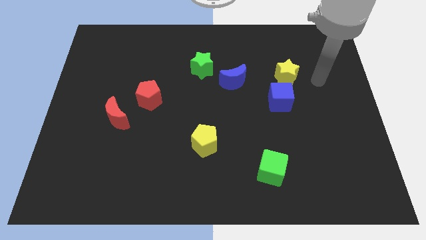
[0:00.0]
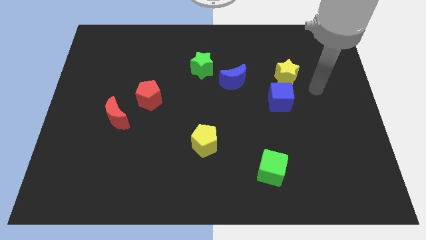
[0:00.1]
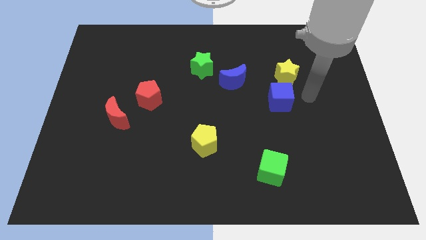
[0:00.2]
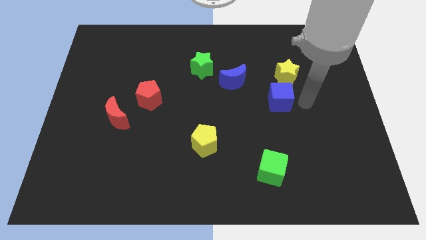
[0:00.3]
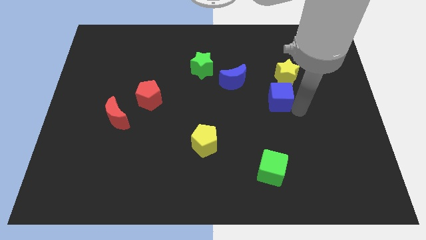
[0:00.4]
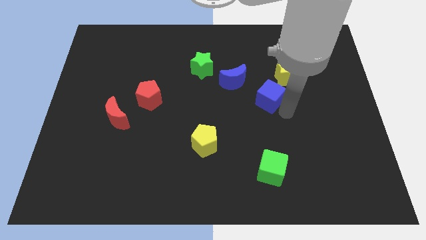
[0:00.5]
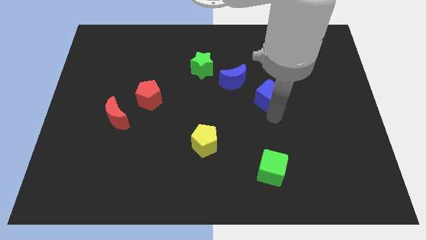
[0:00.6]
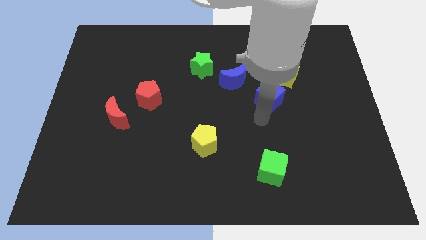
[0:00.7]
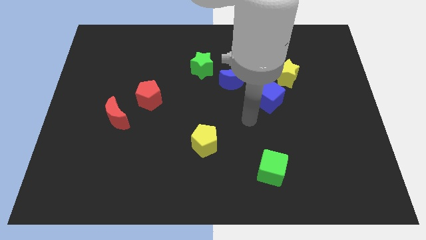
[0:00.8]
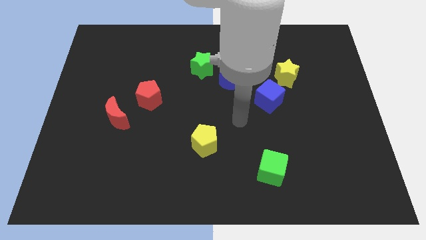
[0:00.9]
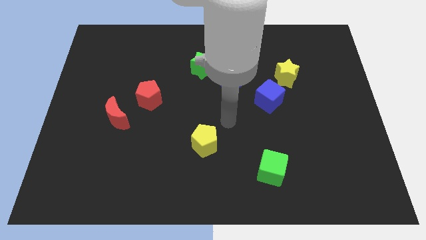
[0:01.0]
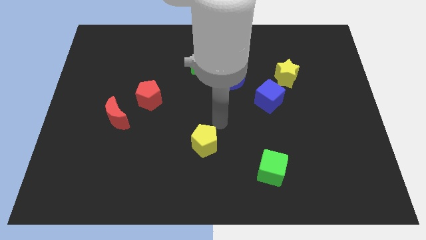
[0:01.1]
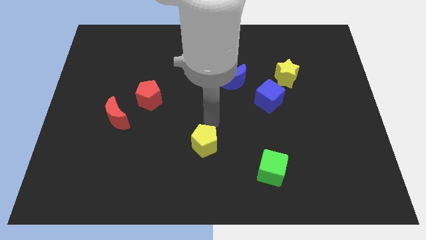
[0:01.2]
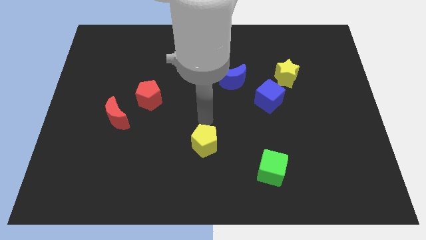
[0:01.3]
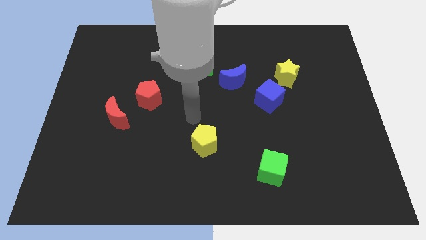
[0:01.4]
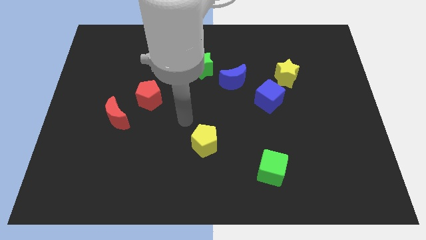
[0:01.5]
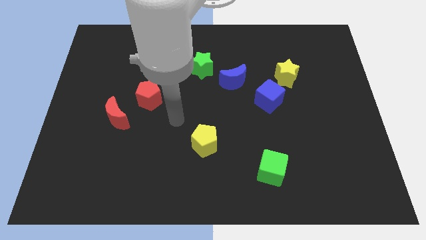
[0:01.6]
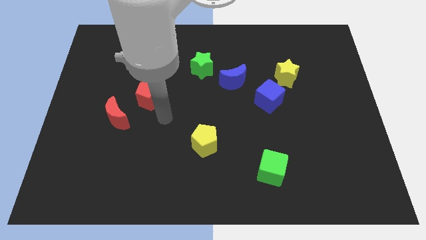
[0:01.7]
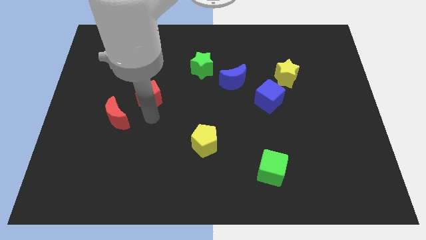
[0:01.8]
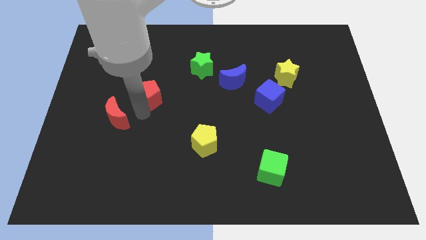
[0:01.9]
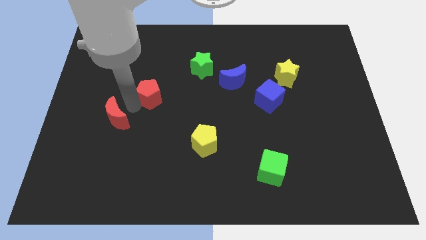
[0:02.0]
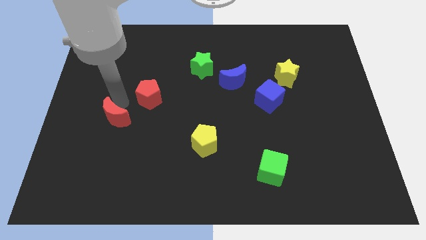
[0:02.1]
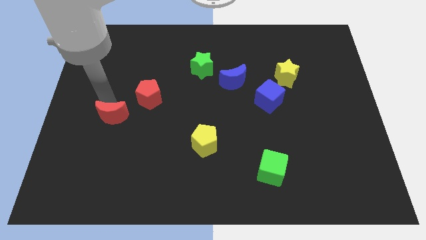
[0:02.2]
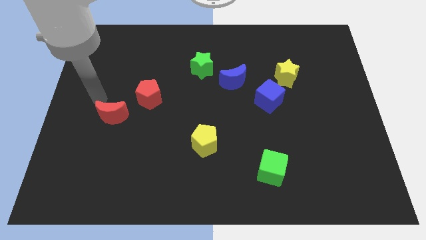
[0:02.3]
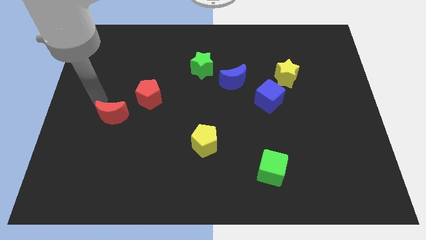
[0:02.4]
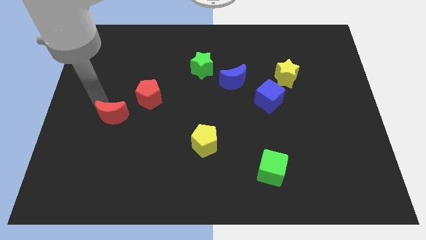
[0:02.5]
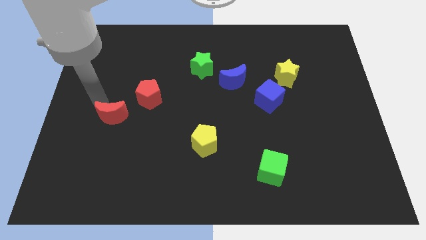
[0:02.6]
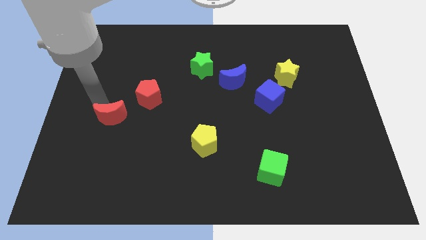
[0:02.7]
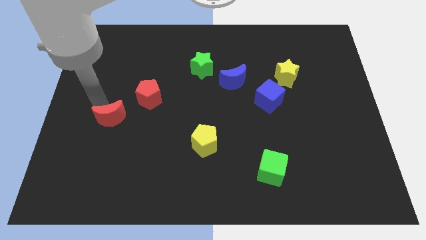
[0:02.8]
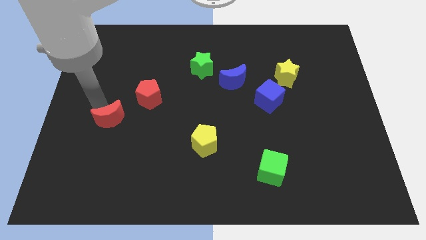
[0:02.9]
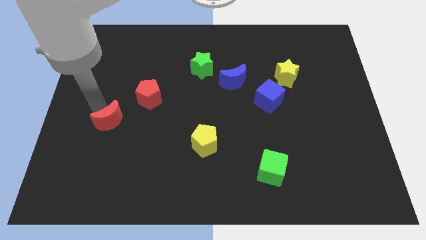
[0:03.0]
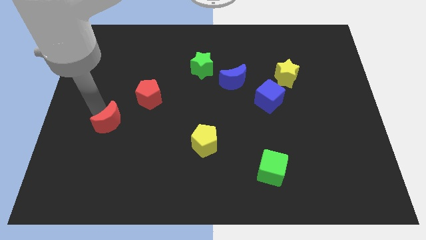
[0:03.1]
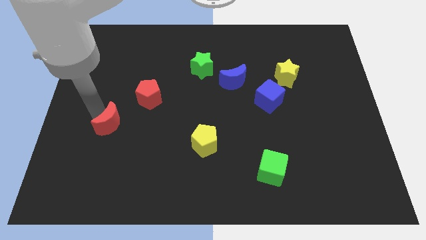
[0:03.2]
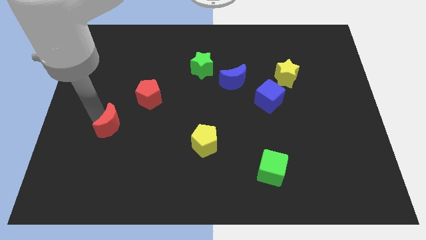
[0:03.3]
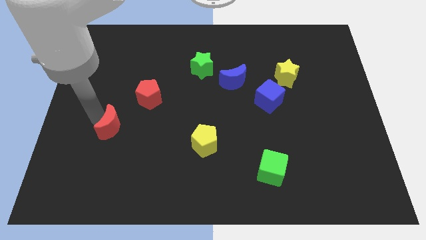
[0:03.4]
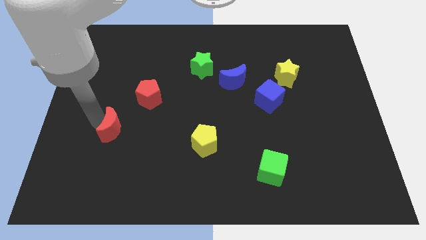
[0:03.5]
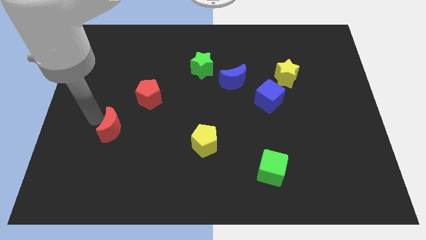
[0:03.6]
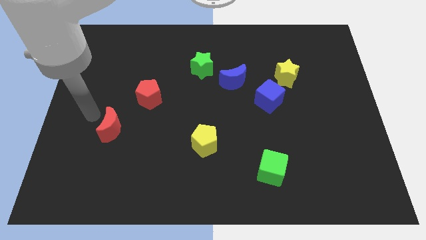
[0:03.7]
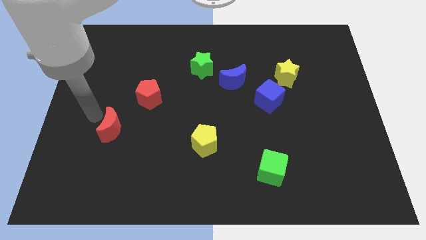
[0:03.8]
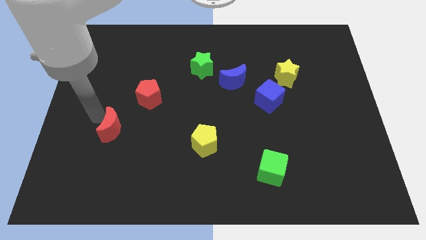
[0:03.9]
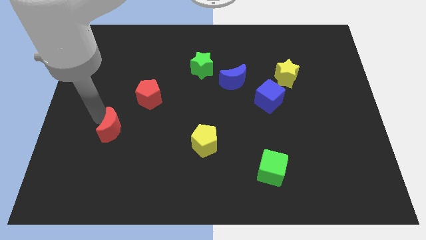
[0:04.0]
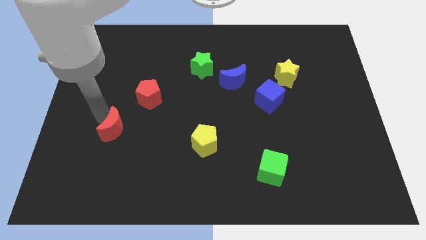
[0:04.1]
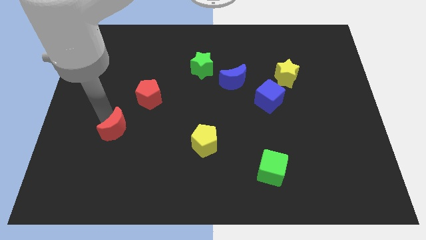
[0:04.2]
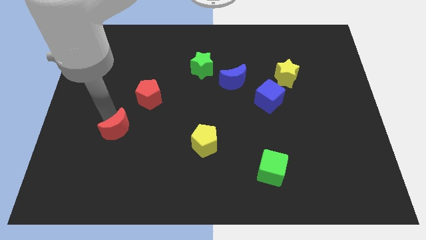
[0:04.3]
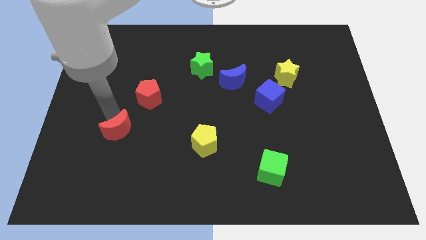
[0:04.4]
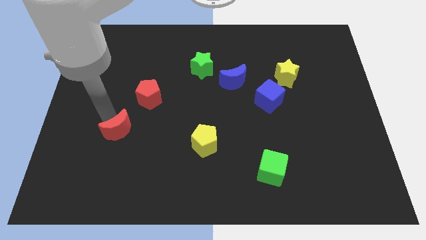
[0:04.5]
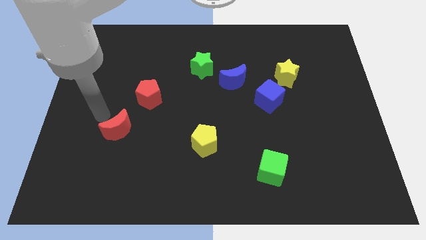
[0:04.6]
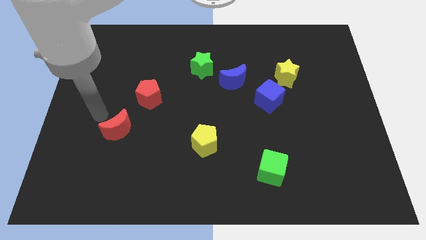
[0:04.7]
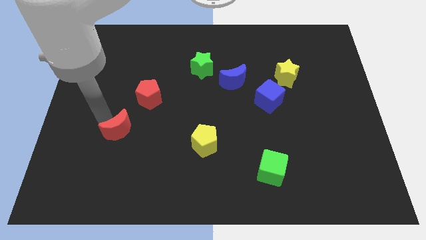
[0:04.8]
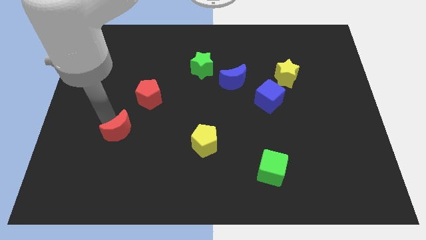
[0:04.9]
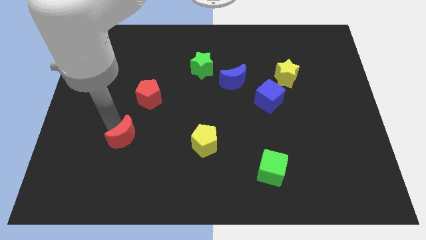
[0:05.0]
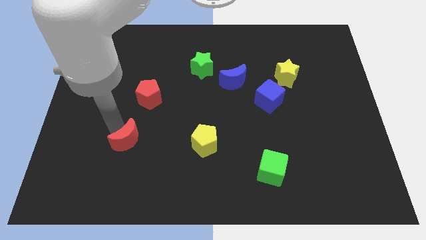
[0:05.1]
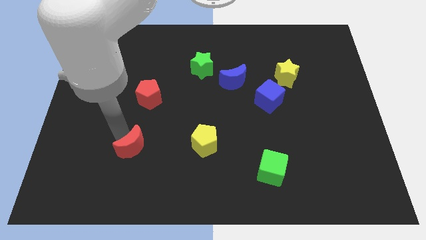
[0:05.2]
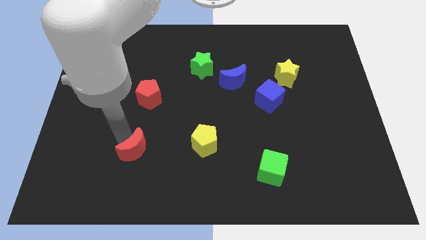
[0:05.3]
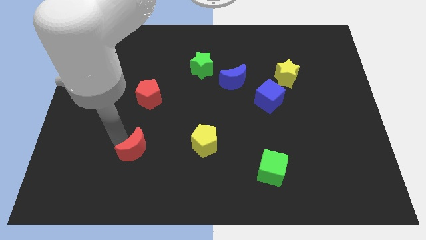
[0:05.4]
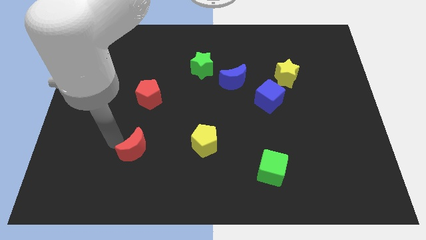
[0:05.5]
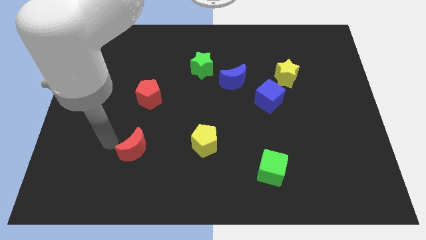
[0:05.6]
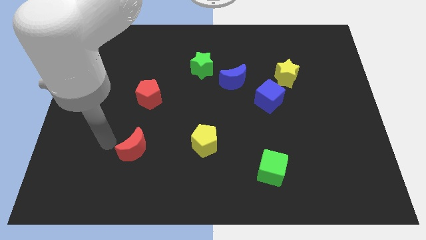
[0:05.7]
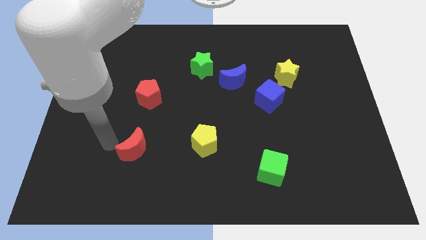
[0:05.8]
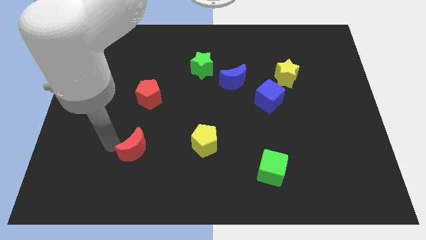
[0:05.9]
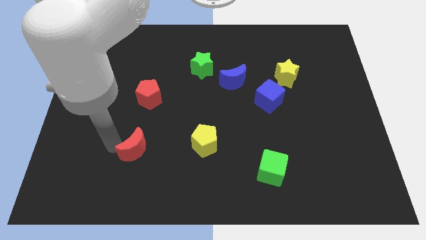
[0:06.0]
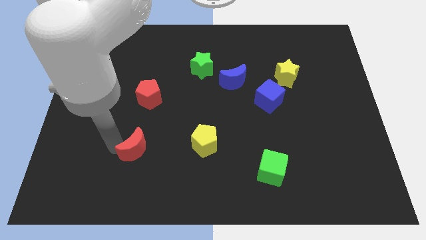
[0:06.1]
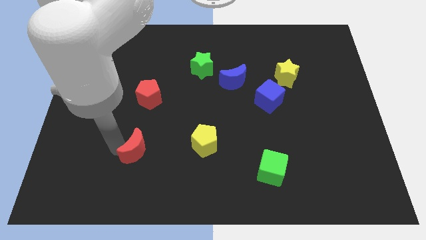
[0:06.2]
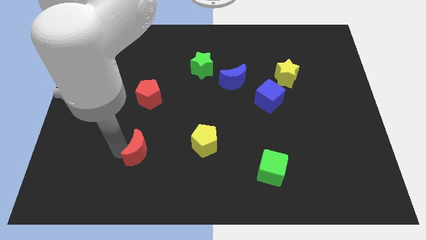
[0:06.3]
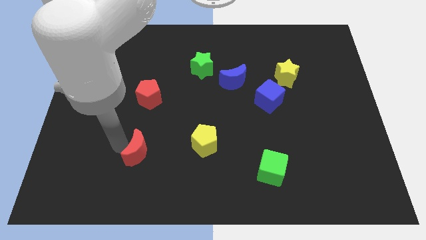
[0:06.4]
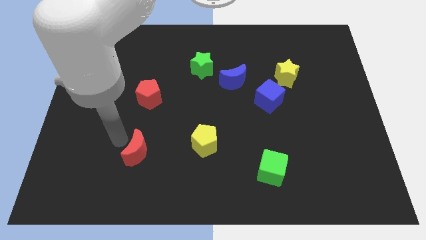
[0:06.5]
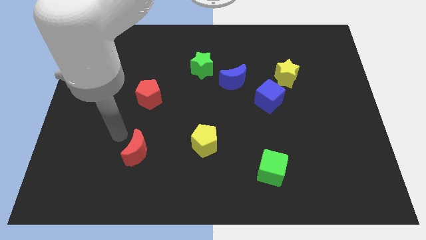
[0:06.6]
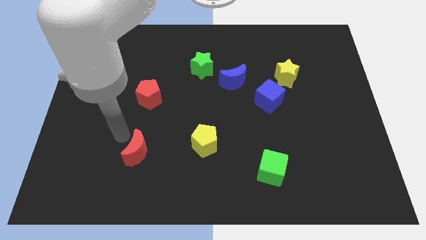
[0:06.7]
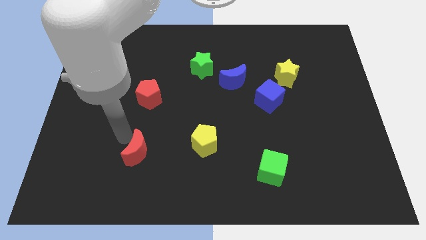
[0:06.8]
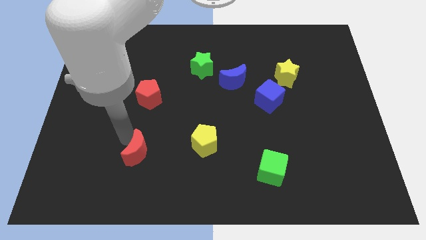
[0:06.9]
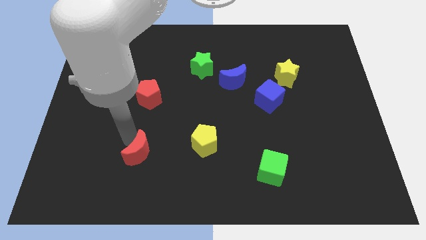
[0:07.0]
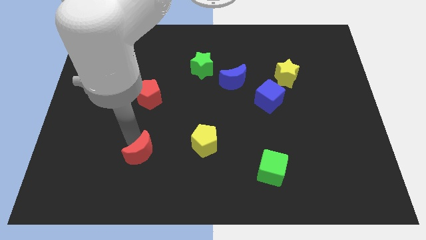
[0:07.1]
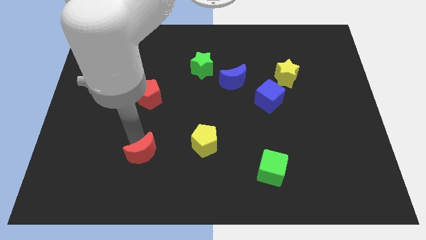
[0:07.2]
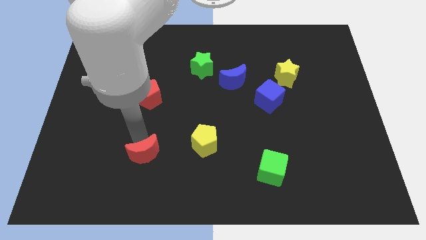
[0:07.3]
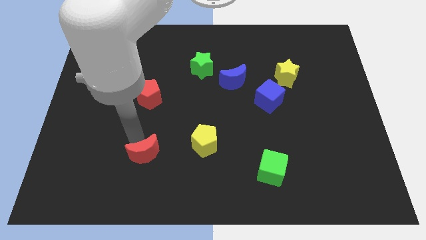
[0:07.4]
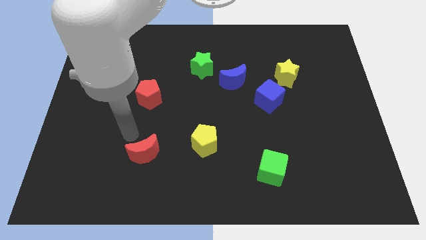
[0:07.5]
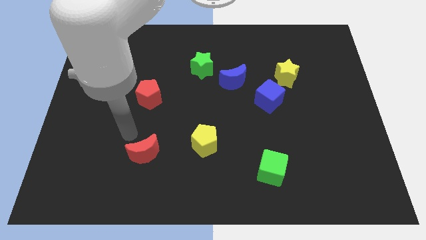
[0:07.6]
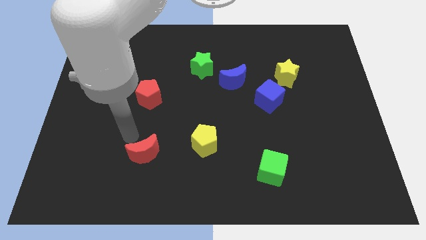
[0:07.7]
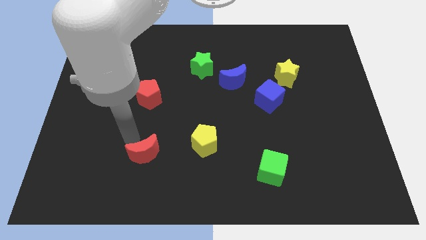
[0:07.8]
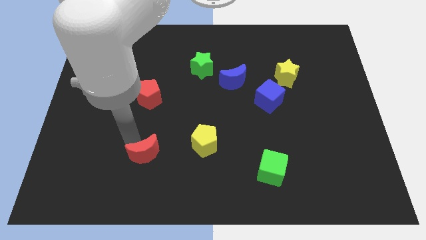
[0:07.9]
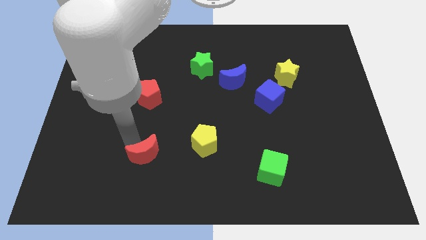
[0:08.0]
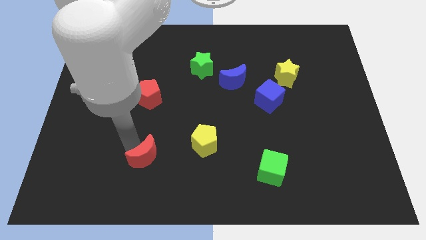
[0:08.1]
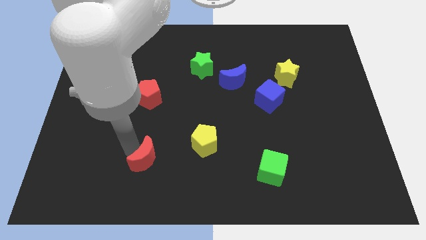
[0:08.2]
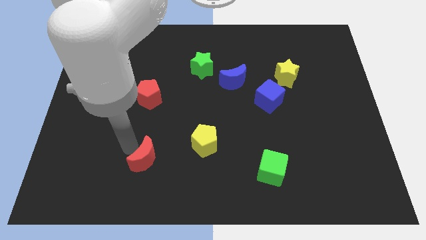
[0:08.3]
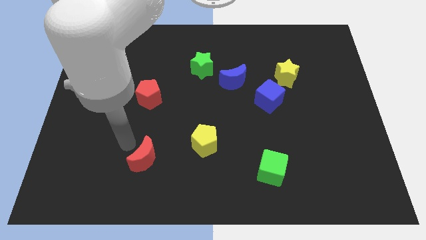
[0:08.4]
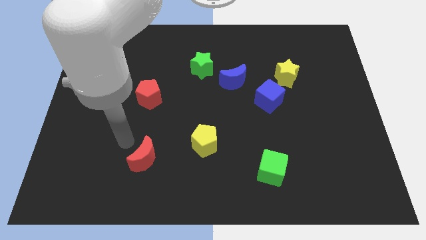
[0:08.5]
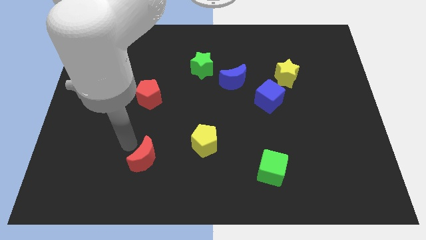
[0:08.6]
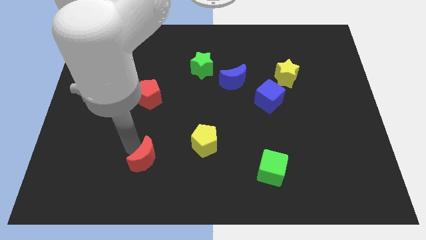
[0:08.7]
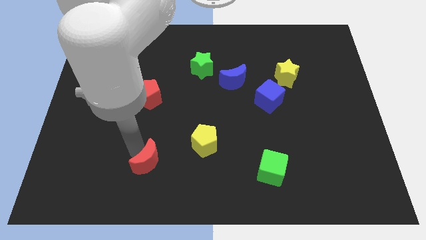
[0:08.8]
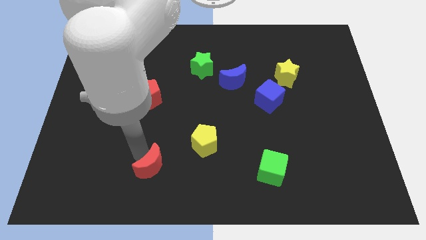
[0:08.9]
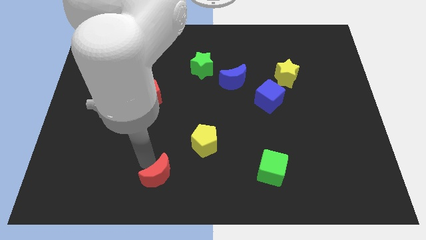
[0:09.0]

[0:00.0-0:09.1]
put the red moon to the bottom side
